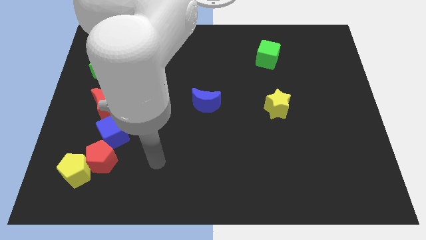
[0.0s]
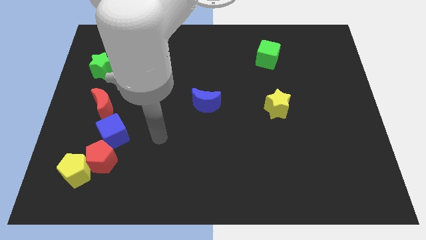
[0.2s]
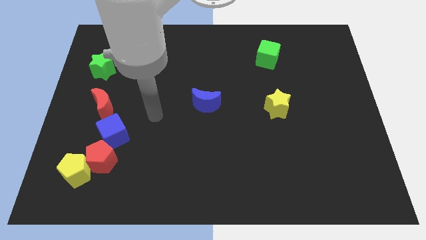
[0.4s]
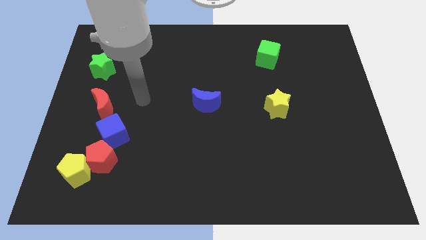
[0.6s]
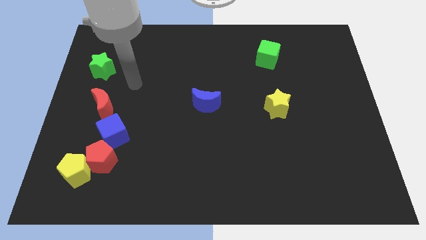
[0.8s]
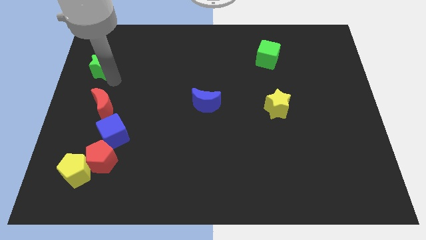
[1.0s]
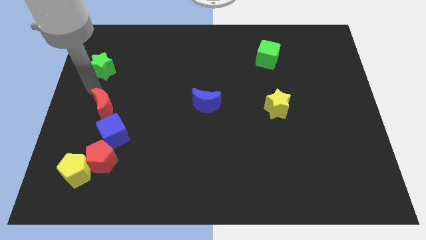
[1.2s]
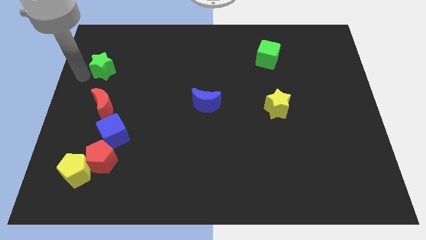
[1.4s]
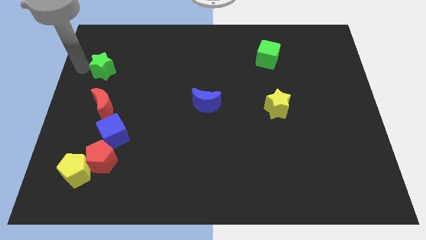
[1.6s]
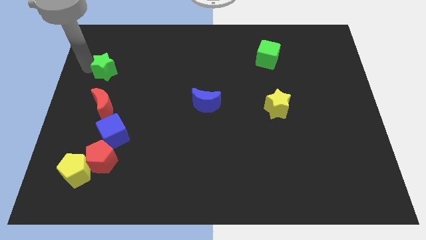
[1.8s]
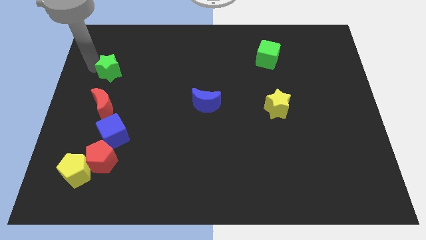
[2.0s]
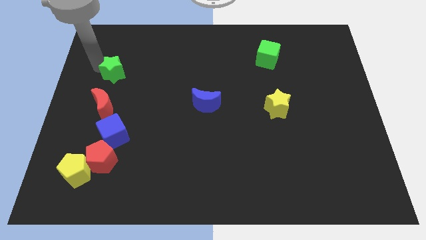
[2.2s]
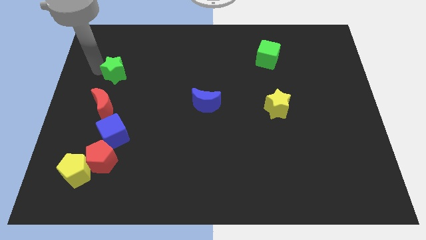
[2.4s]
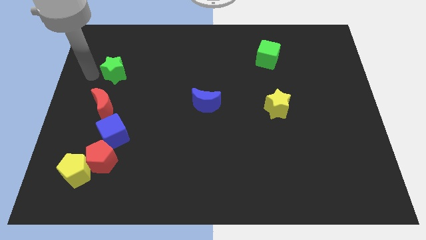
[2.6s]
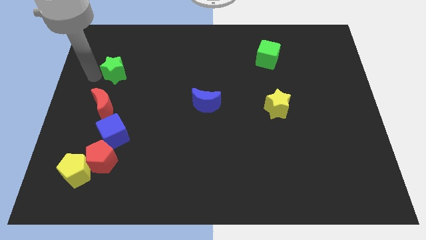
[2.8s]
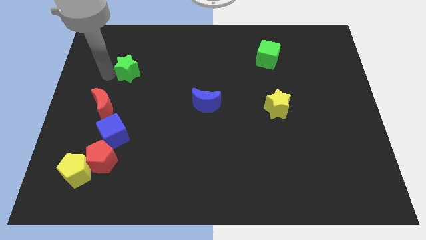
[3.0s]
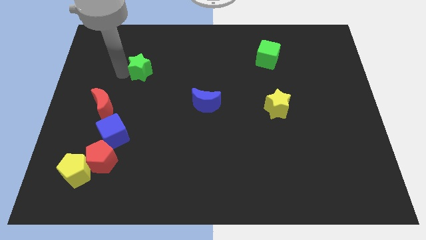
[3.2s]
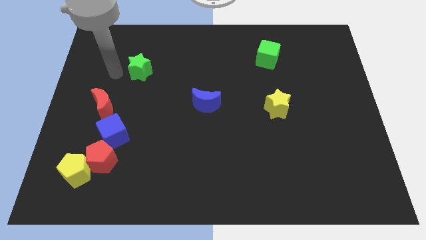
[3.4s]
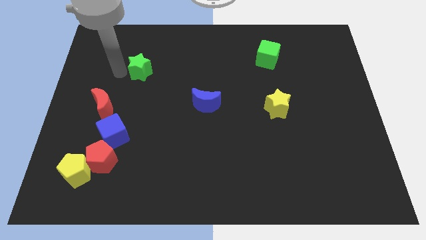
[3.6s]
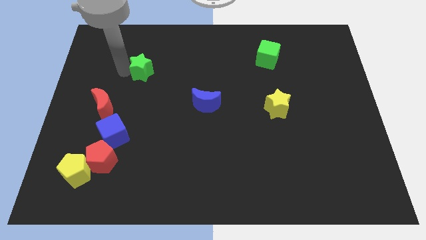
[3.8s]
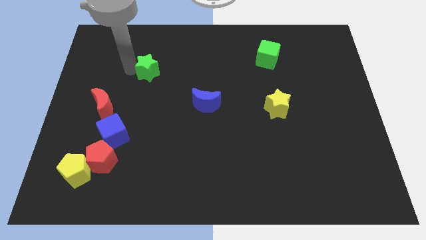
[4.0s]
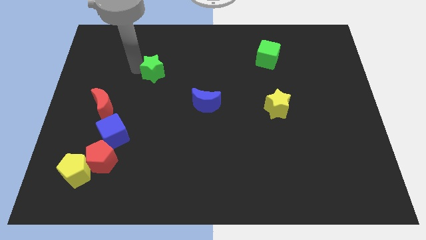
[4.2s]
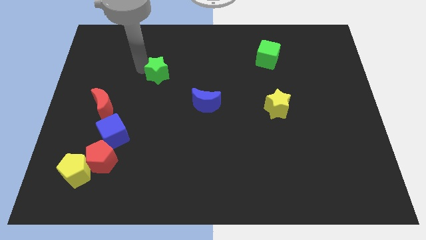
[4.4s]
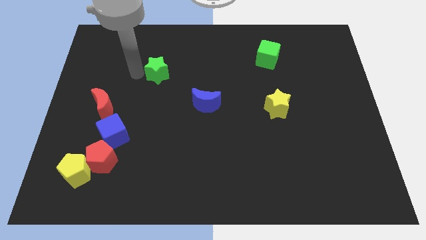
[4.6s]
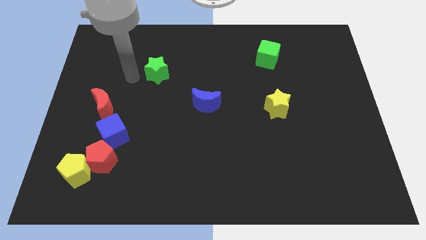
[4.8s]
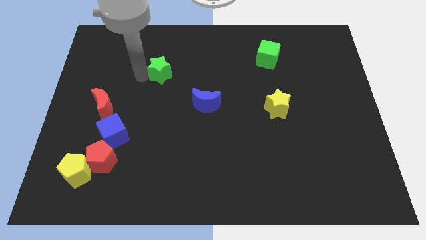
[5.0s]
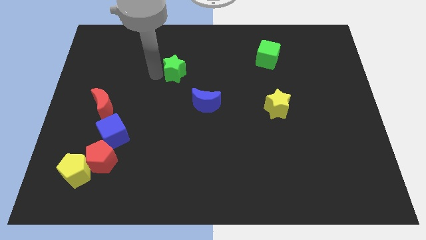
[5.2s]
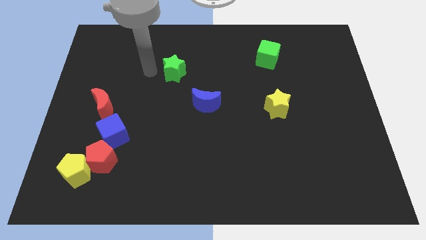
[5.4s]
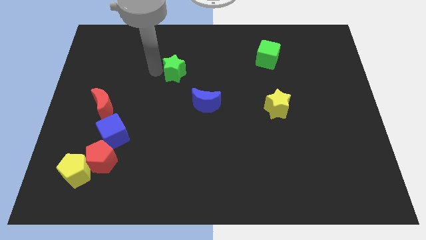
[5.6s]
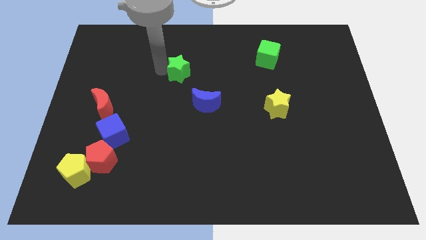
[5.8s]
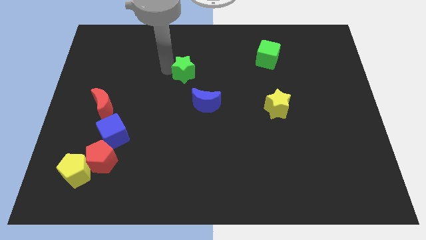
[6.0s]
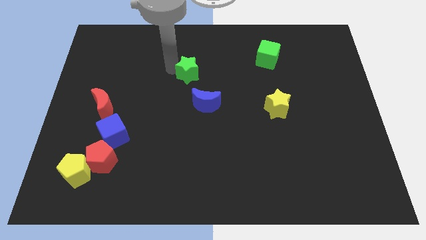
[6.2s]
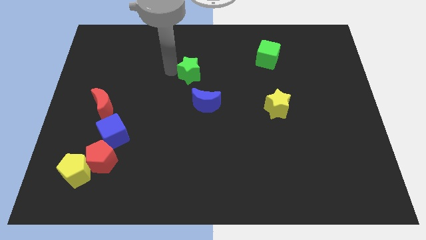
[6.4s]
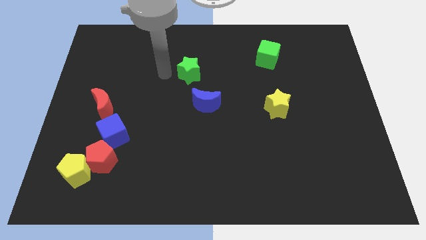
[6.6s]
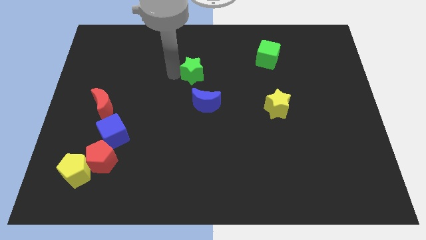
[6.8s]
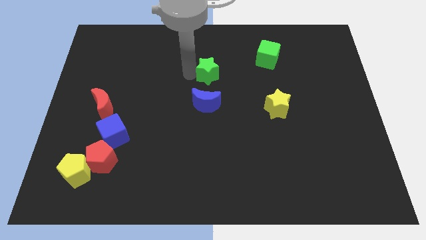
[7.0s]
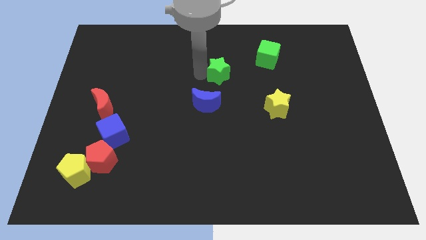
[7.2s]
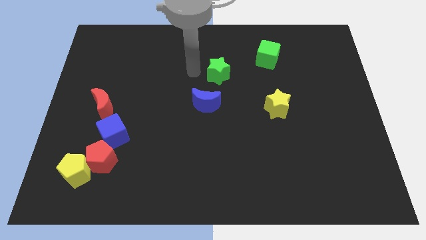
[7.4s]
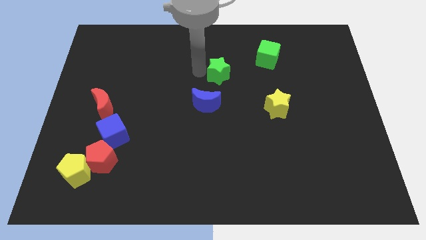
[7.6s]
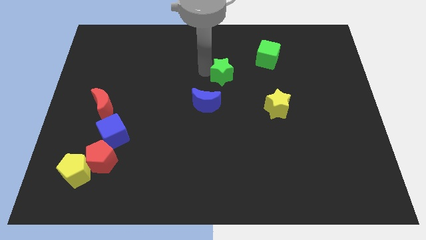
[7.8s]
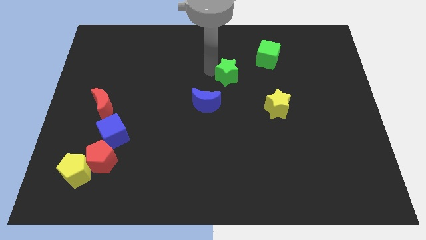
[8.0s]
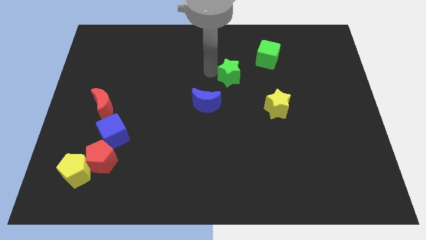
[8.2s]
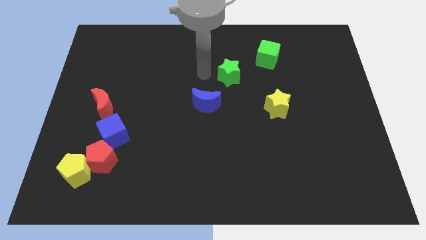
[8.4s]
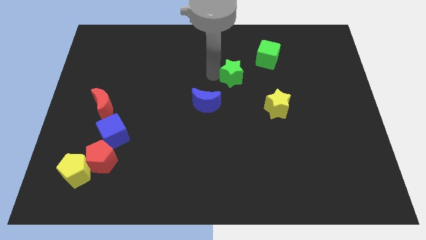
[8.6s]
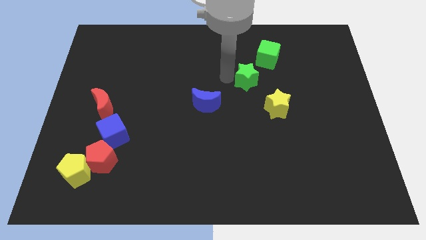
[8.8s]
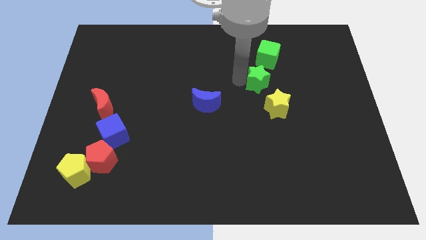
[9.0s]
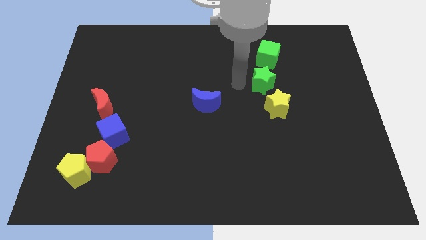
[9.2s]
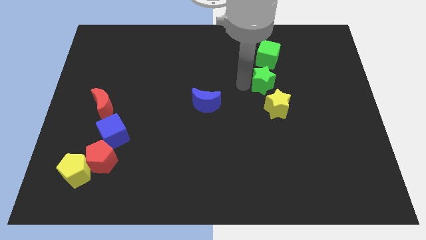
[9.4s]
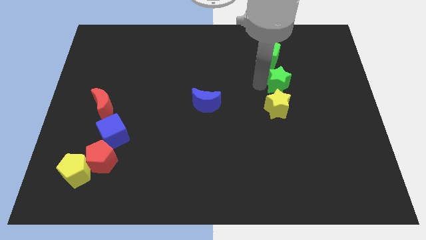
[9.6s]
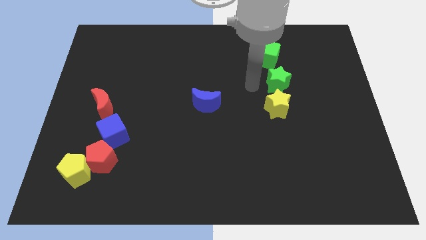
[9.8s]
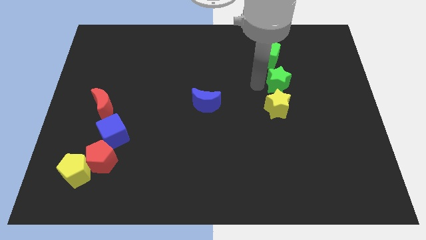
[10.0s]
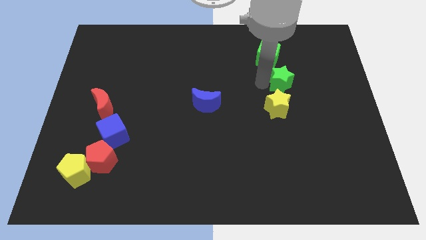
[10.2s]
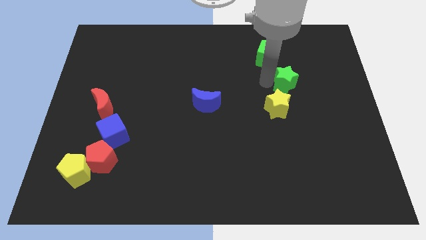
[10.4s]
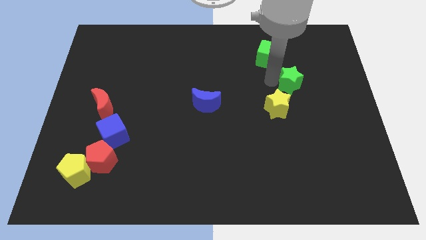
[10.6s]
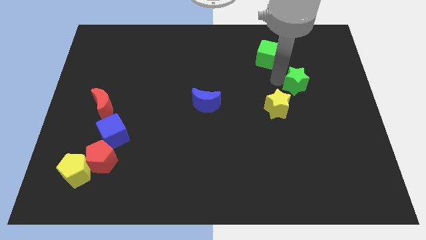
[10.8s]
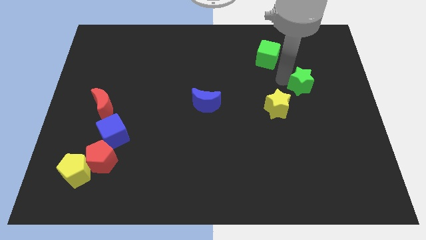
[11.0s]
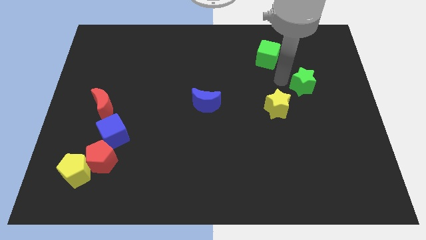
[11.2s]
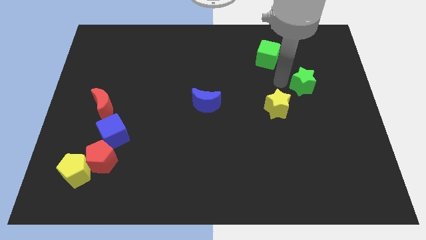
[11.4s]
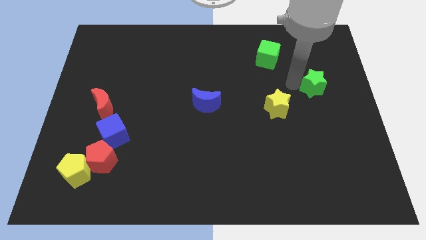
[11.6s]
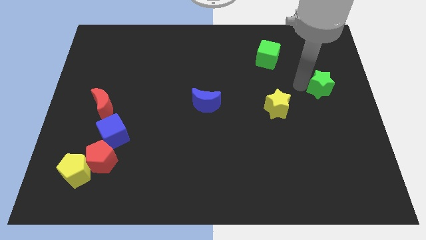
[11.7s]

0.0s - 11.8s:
put the green star to the right side

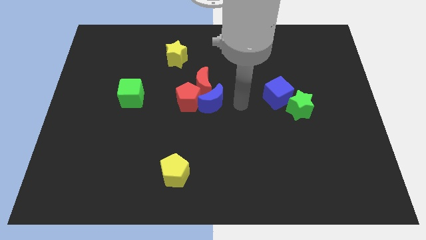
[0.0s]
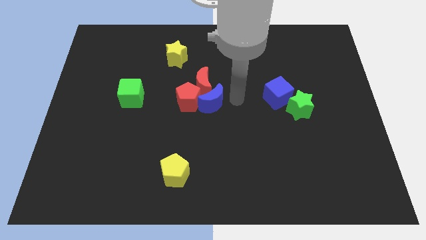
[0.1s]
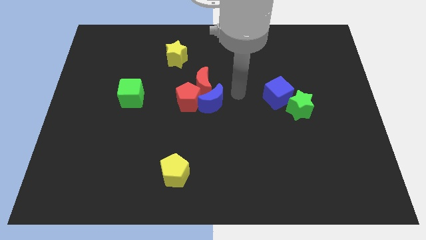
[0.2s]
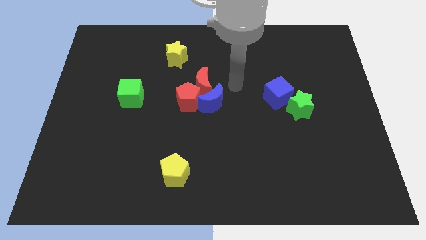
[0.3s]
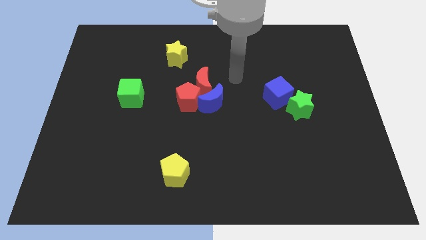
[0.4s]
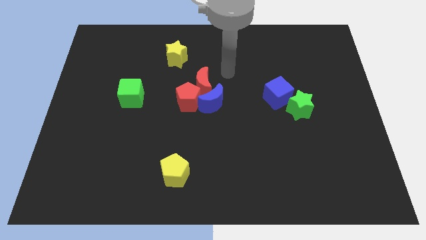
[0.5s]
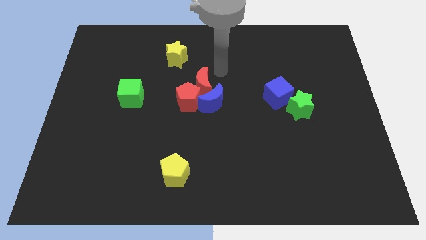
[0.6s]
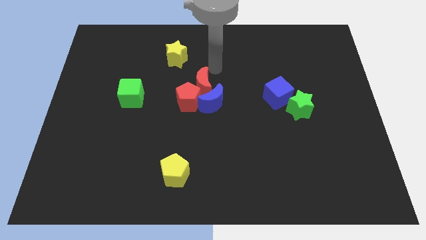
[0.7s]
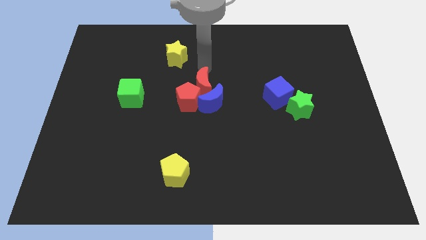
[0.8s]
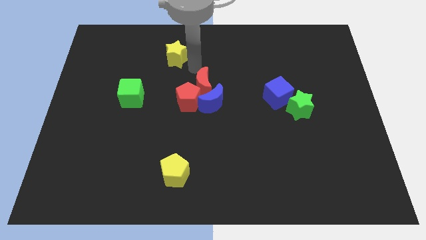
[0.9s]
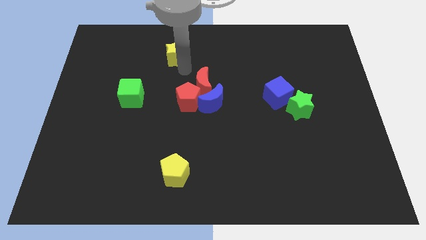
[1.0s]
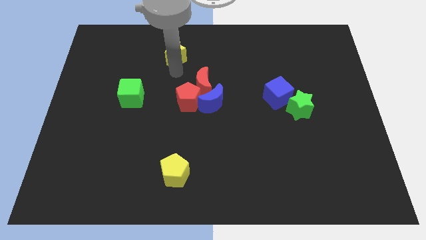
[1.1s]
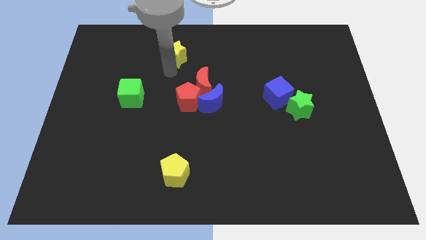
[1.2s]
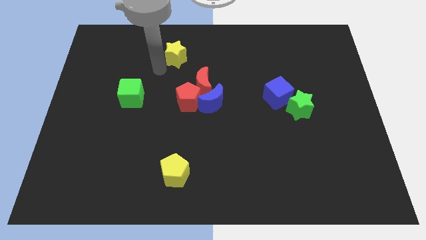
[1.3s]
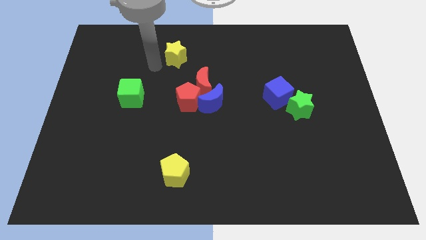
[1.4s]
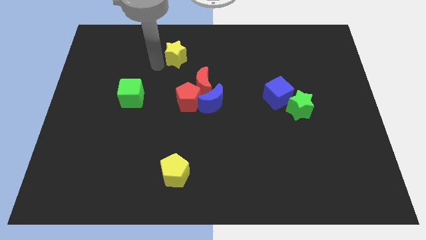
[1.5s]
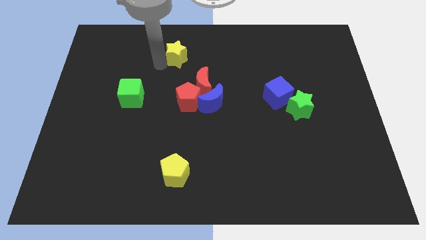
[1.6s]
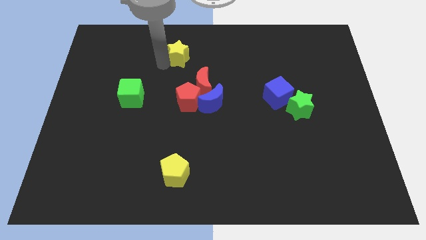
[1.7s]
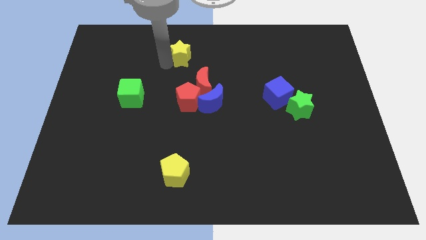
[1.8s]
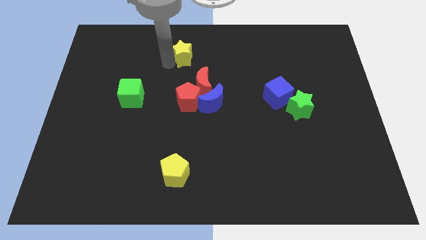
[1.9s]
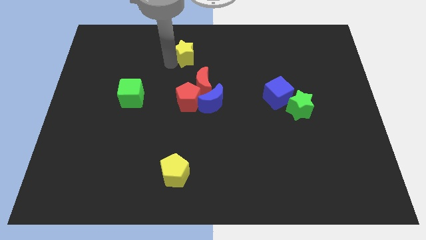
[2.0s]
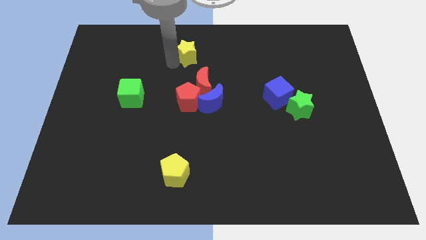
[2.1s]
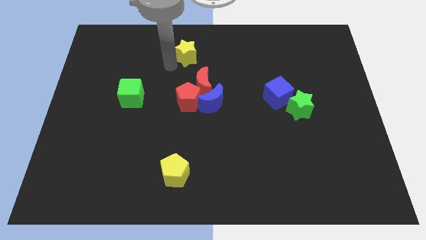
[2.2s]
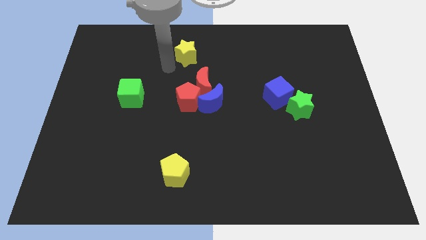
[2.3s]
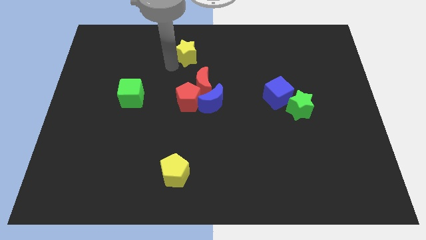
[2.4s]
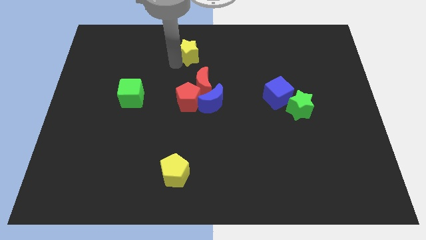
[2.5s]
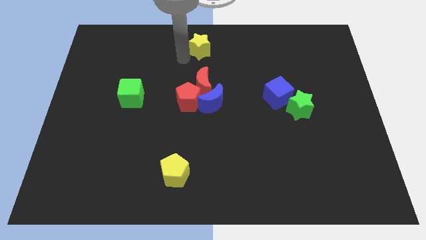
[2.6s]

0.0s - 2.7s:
push the yellow star to the top side
